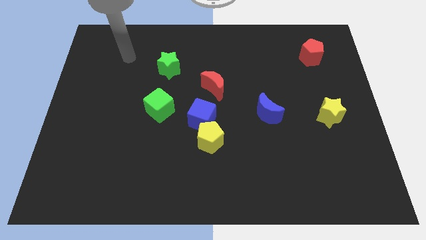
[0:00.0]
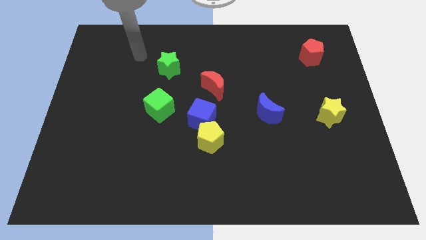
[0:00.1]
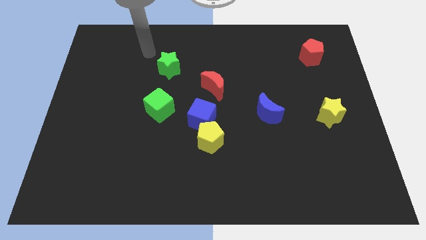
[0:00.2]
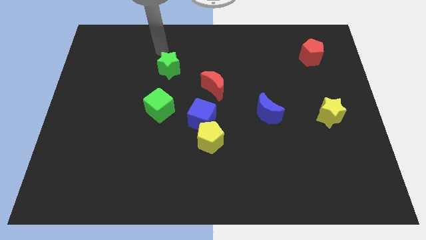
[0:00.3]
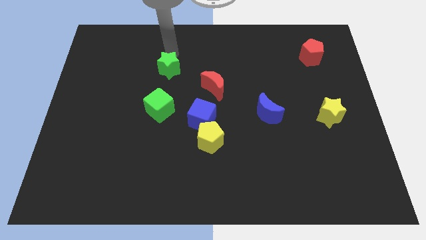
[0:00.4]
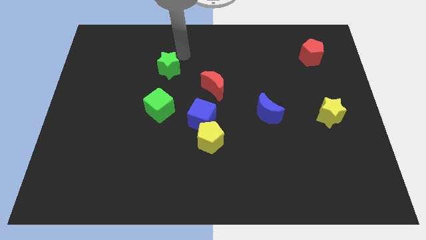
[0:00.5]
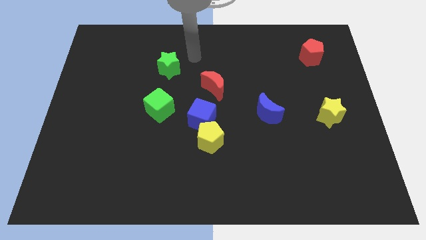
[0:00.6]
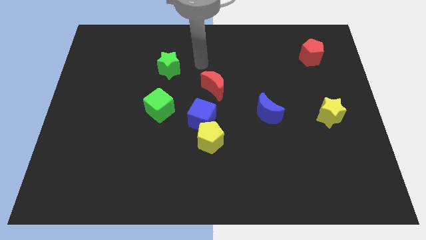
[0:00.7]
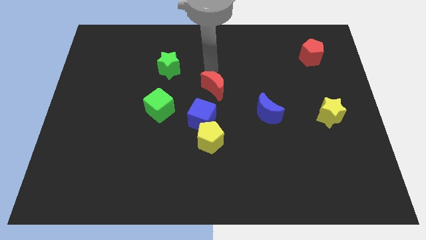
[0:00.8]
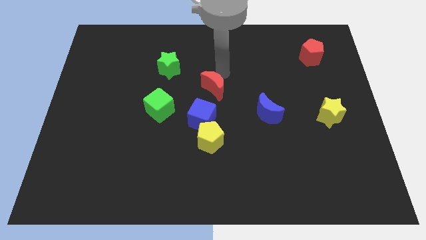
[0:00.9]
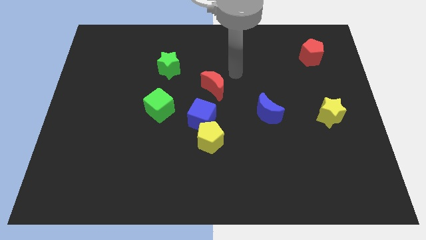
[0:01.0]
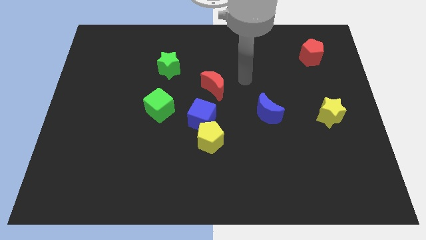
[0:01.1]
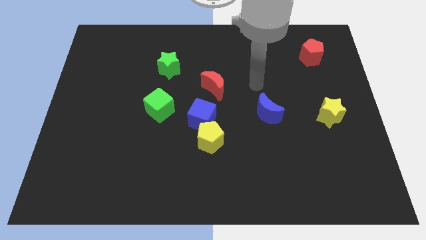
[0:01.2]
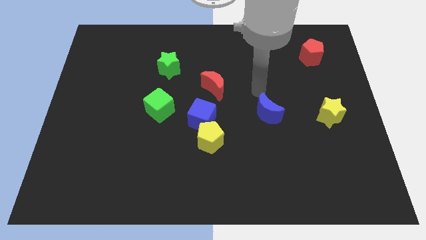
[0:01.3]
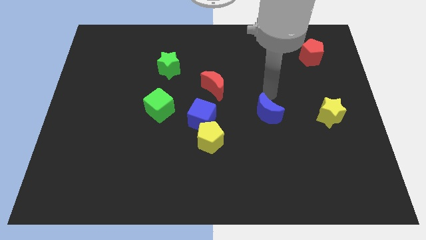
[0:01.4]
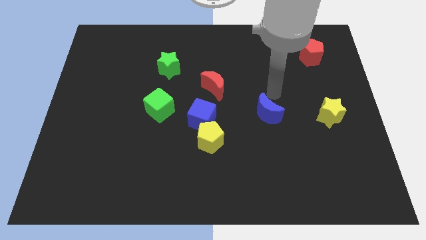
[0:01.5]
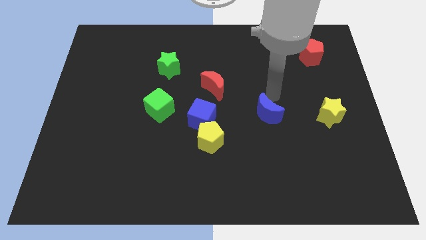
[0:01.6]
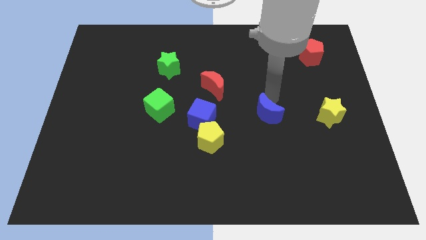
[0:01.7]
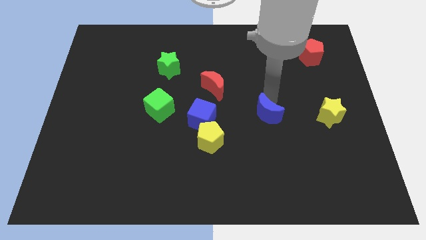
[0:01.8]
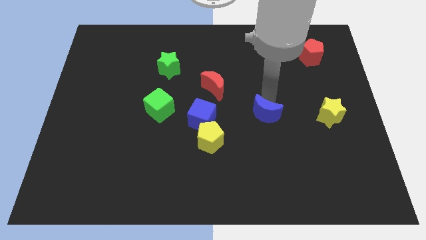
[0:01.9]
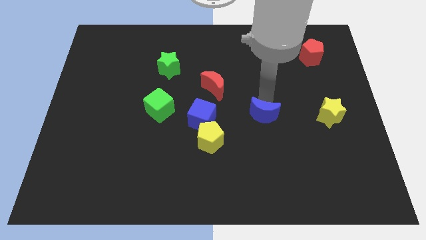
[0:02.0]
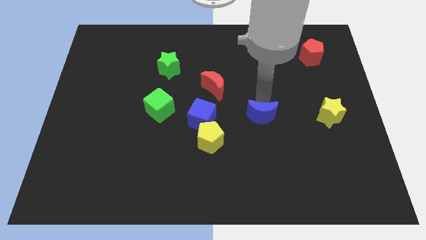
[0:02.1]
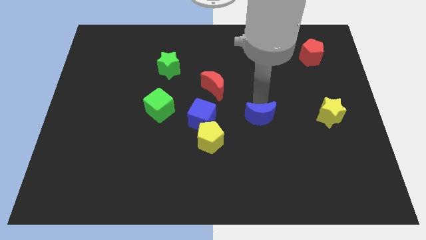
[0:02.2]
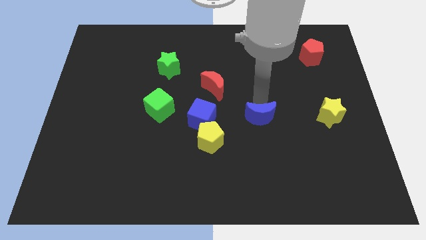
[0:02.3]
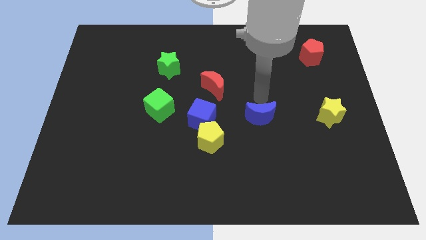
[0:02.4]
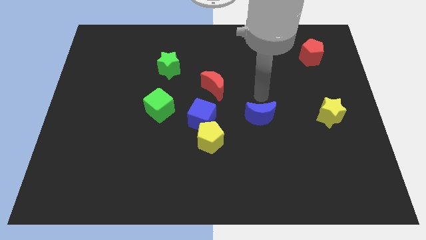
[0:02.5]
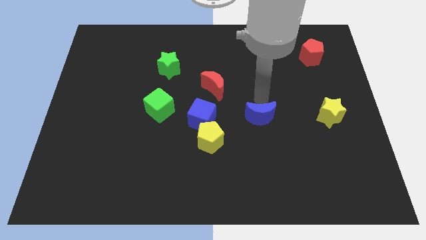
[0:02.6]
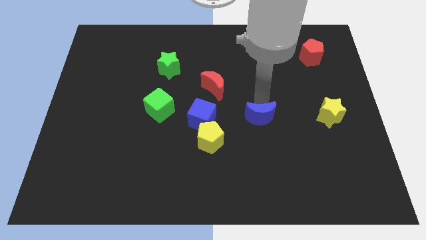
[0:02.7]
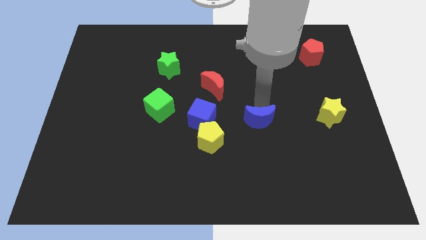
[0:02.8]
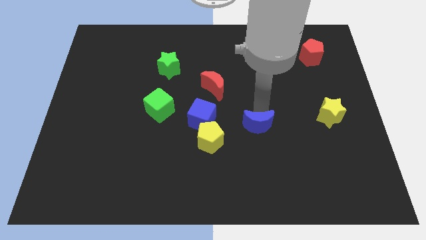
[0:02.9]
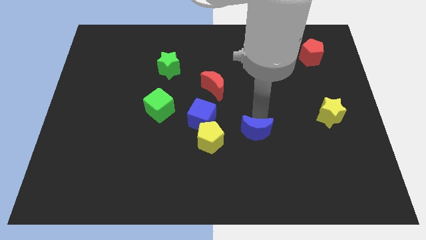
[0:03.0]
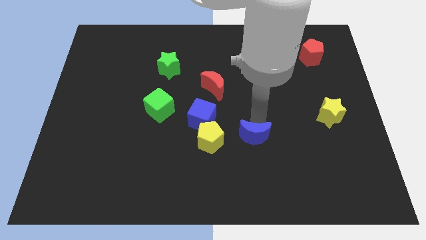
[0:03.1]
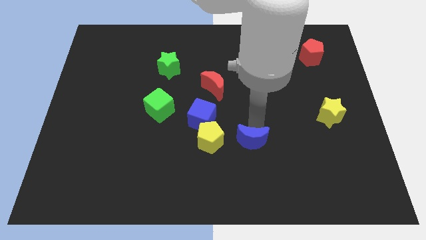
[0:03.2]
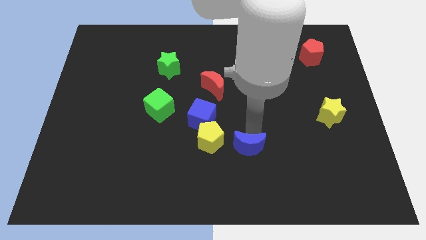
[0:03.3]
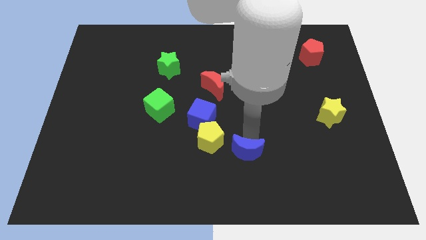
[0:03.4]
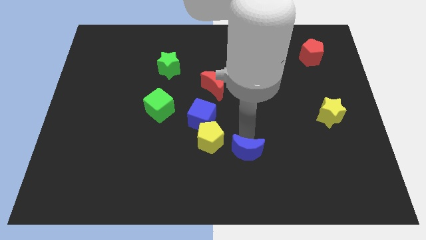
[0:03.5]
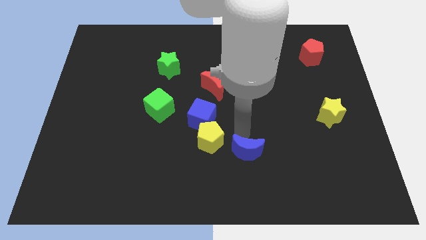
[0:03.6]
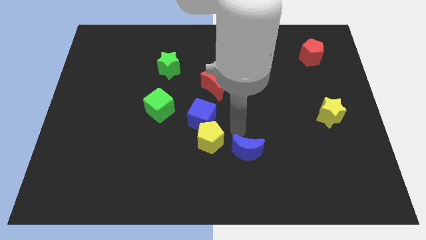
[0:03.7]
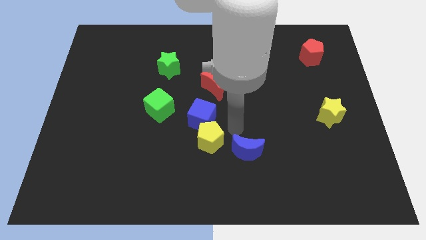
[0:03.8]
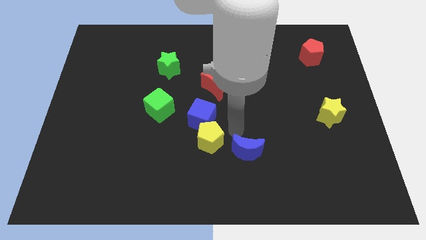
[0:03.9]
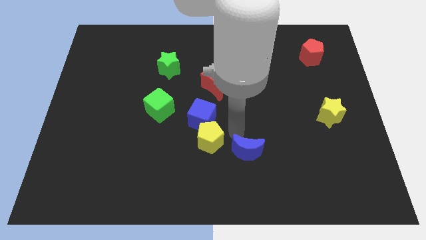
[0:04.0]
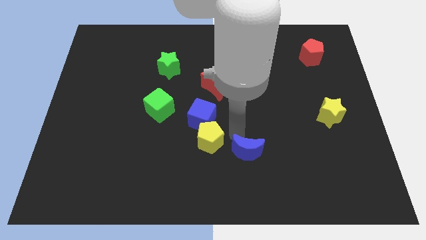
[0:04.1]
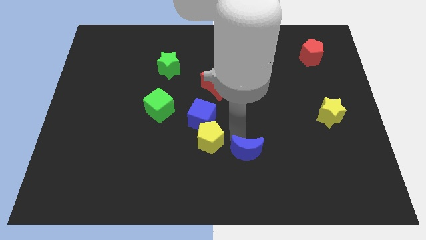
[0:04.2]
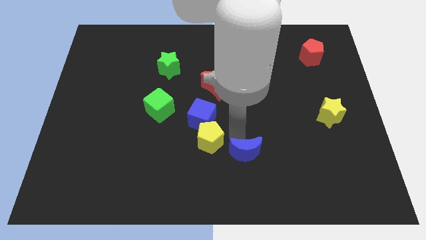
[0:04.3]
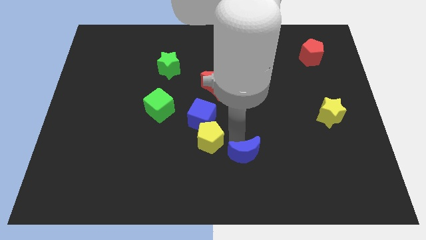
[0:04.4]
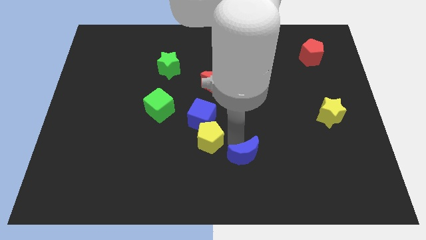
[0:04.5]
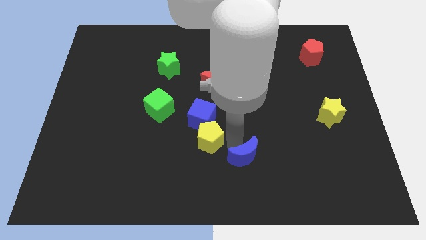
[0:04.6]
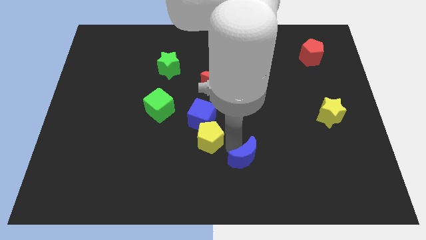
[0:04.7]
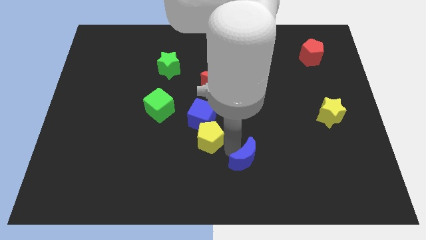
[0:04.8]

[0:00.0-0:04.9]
slide the blue moon to the bottom side

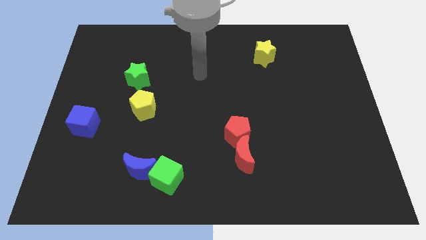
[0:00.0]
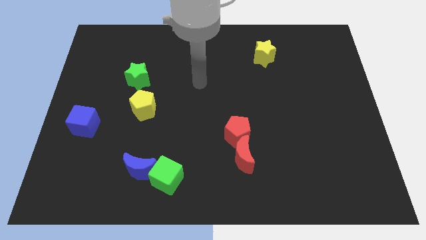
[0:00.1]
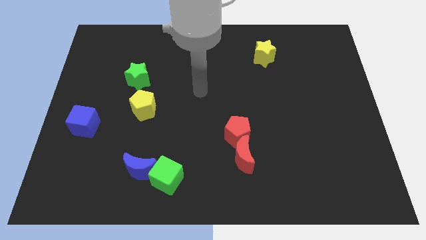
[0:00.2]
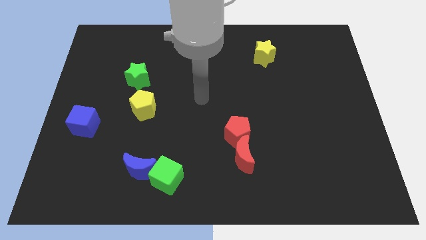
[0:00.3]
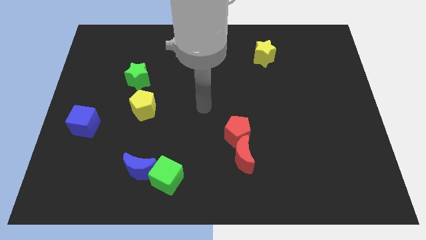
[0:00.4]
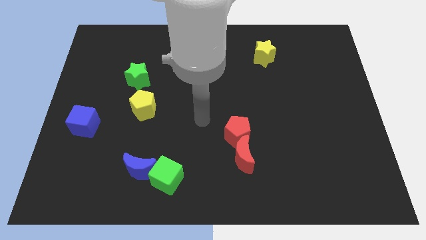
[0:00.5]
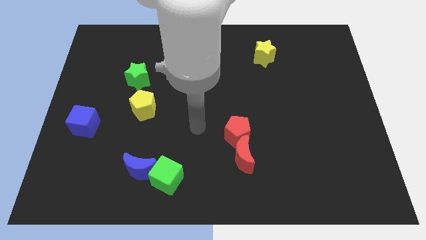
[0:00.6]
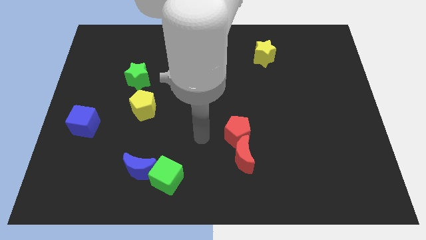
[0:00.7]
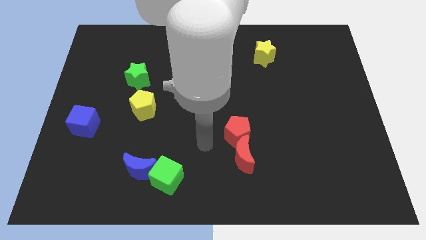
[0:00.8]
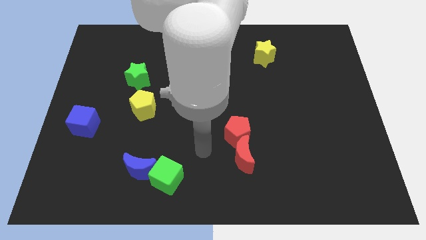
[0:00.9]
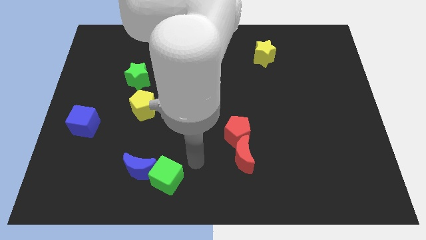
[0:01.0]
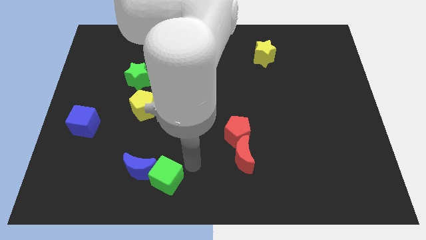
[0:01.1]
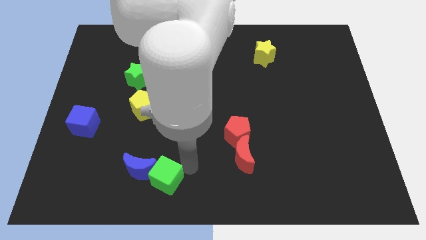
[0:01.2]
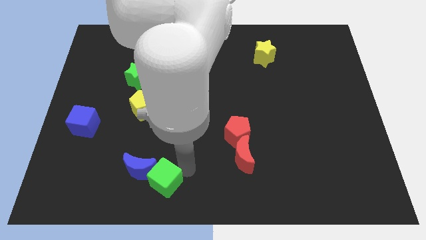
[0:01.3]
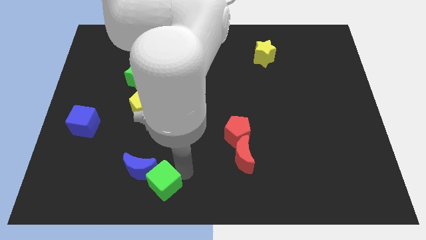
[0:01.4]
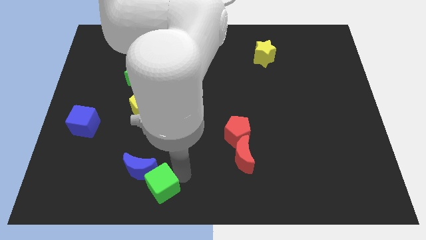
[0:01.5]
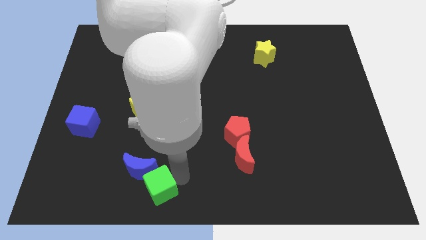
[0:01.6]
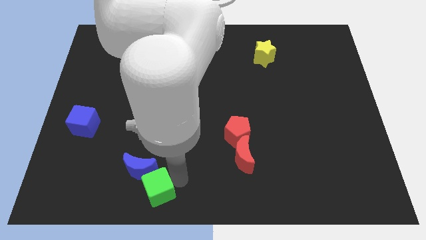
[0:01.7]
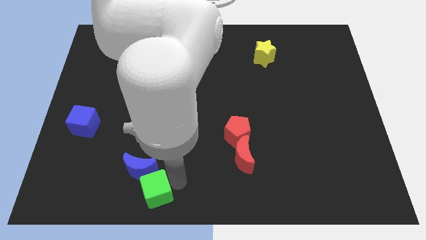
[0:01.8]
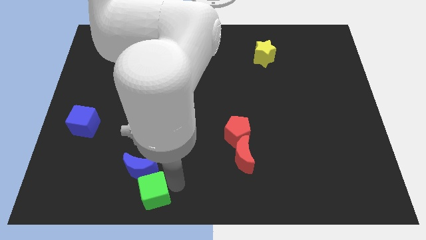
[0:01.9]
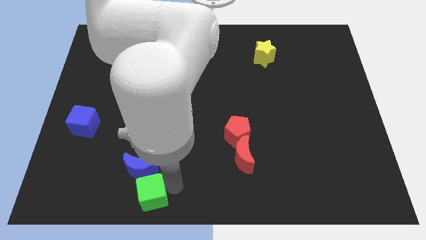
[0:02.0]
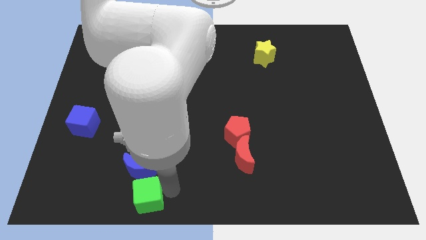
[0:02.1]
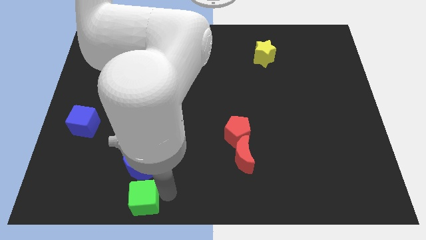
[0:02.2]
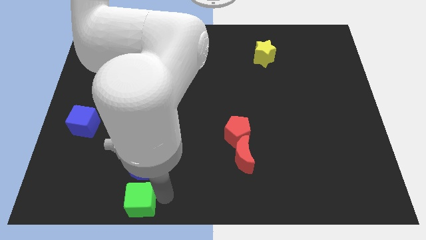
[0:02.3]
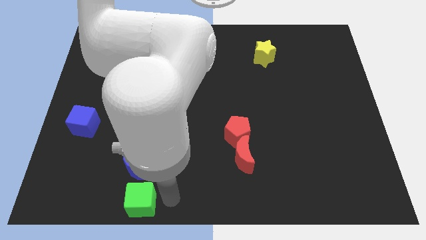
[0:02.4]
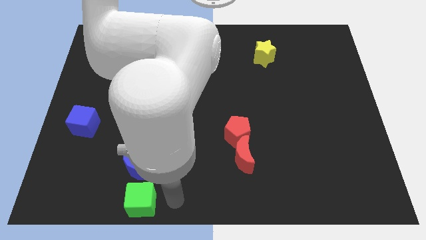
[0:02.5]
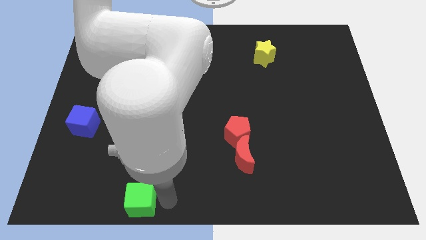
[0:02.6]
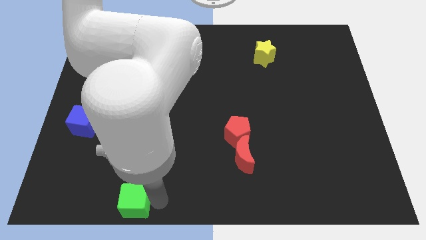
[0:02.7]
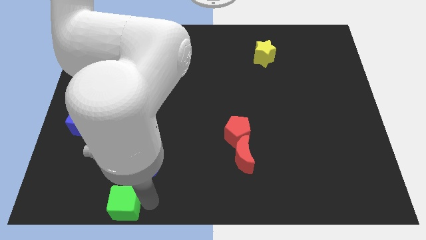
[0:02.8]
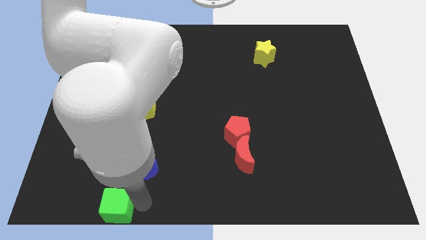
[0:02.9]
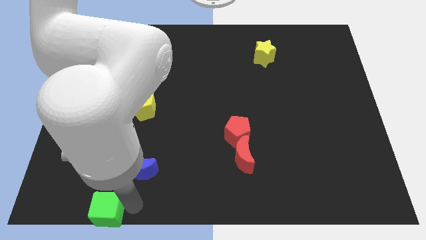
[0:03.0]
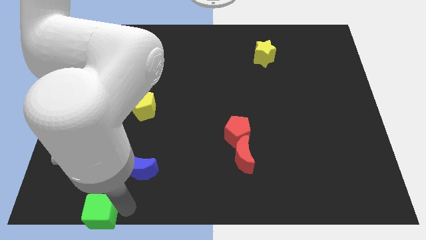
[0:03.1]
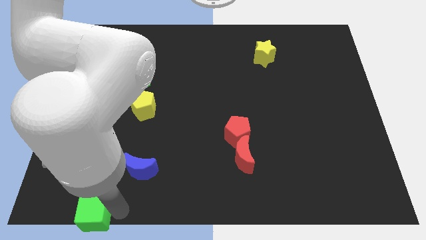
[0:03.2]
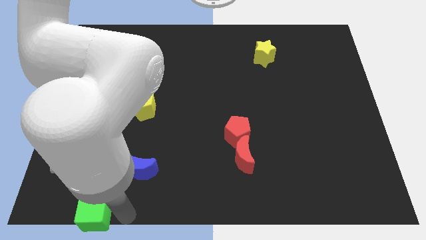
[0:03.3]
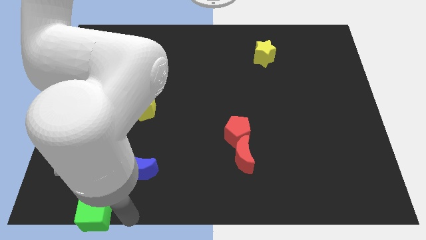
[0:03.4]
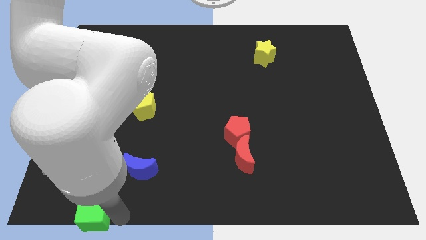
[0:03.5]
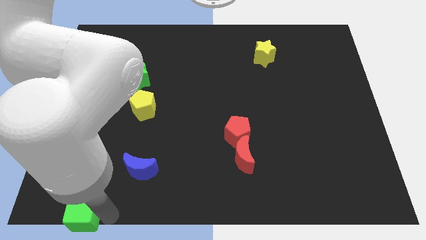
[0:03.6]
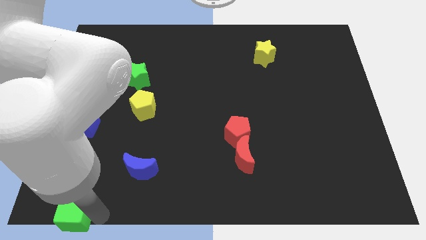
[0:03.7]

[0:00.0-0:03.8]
put the green cube to the bottom left corner
